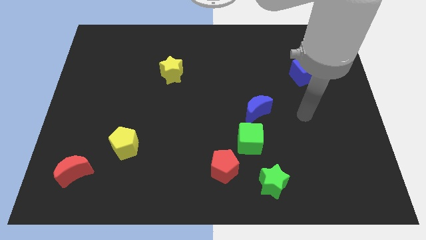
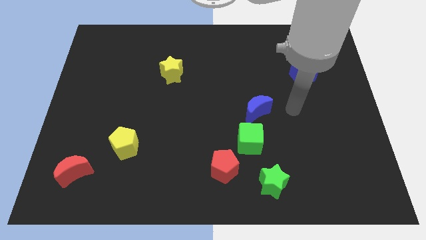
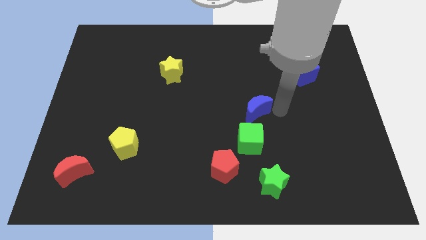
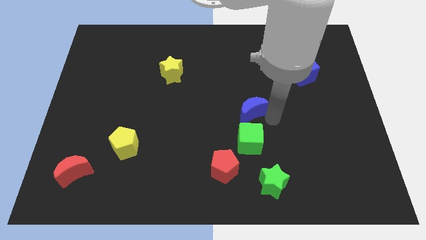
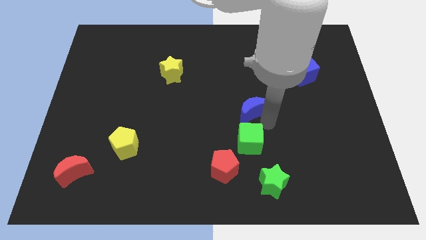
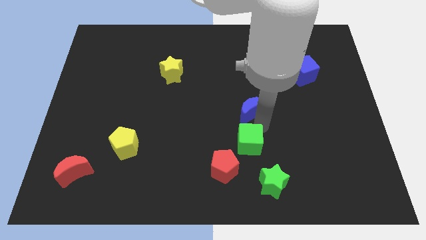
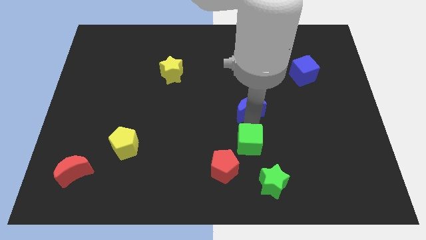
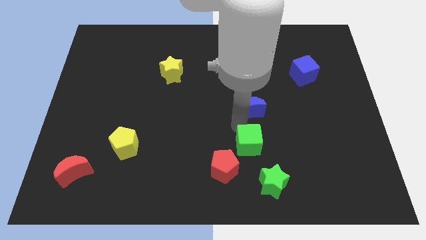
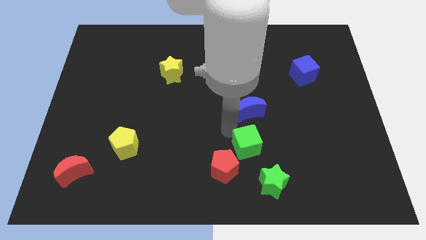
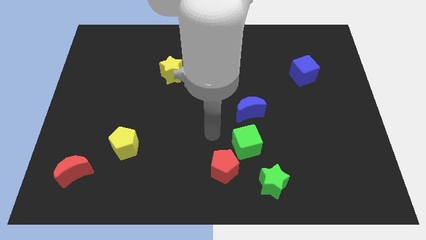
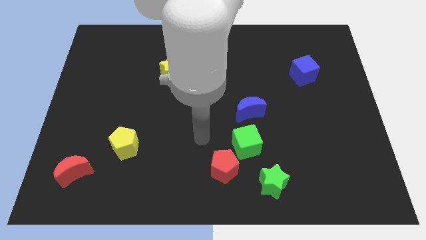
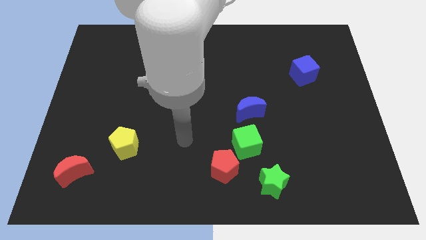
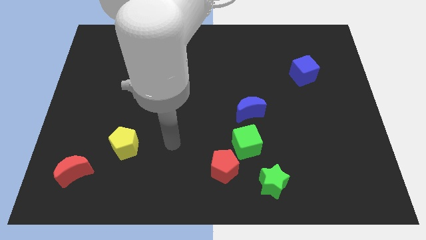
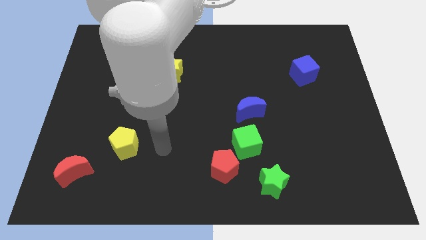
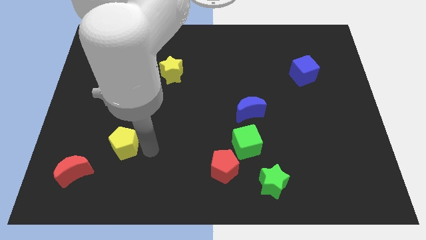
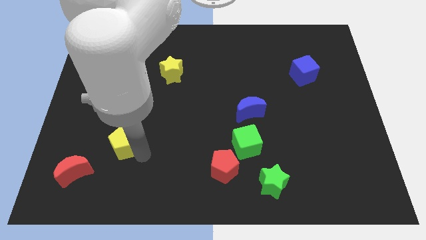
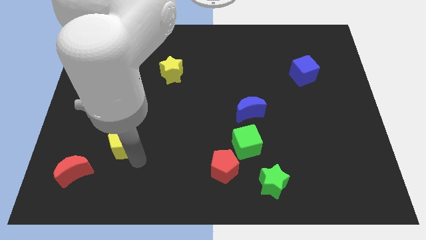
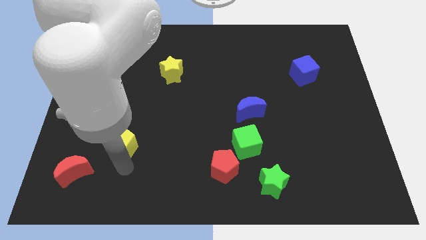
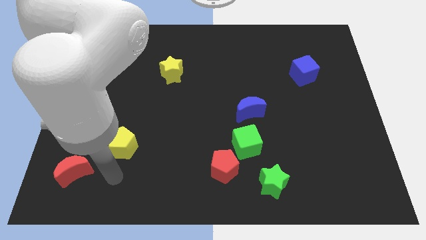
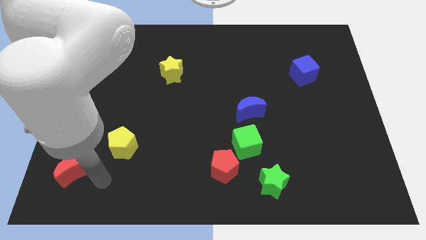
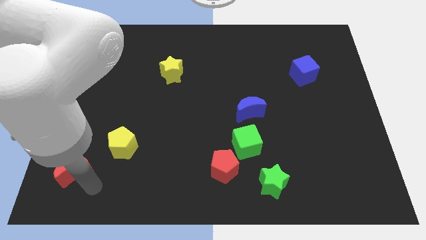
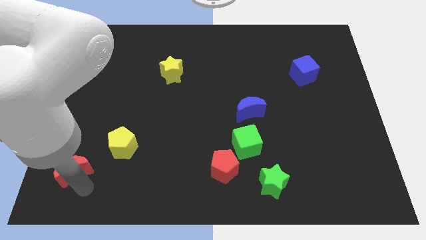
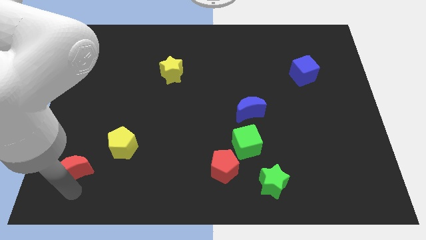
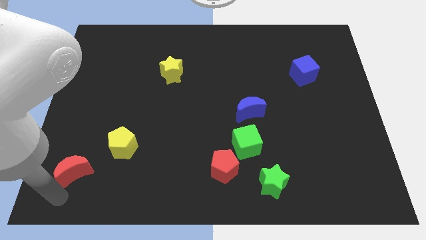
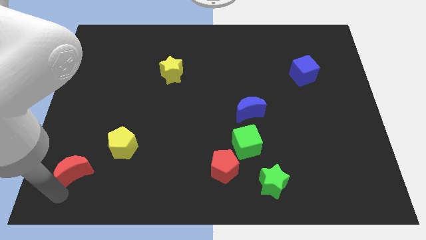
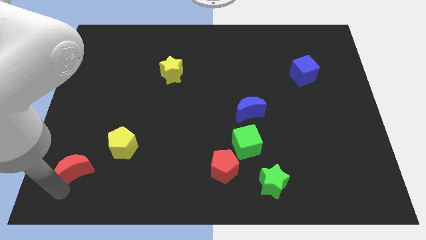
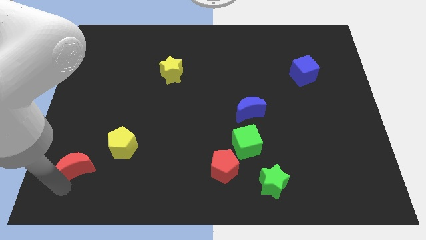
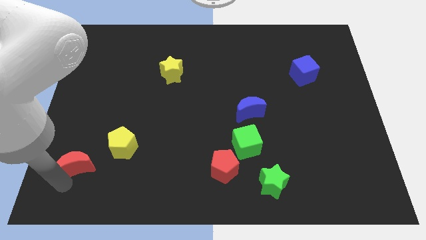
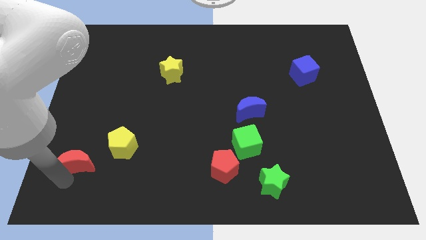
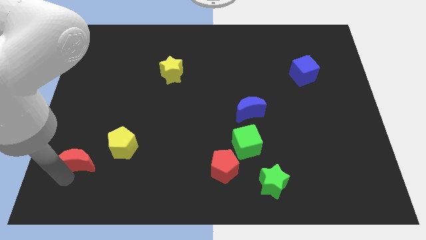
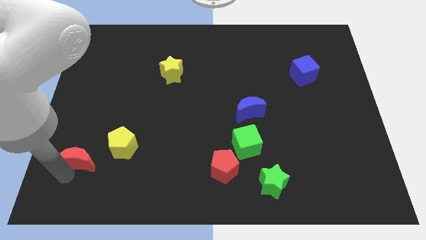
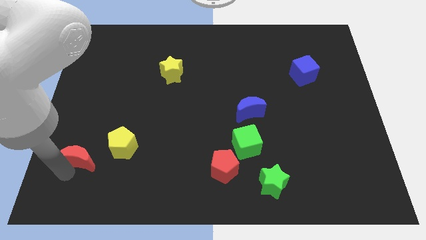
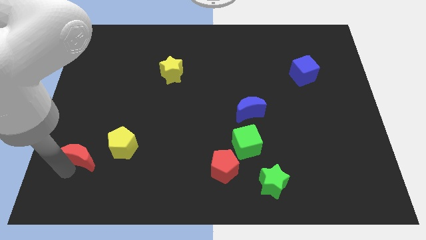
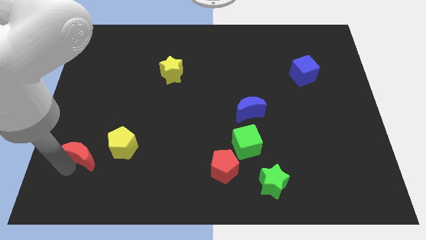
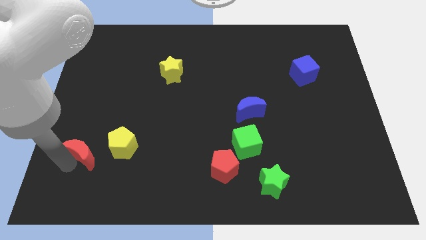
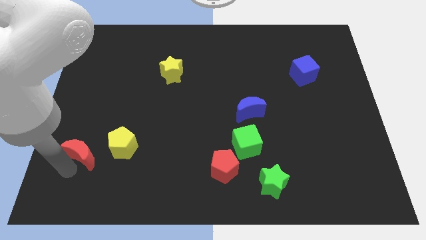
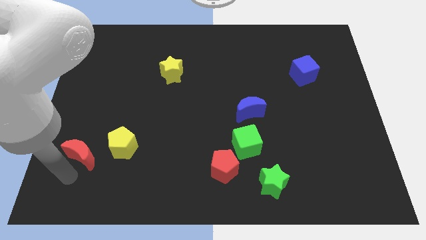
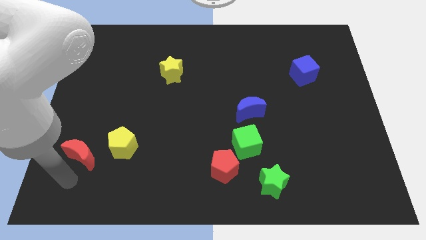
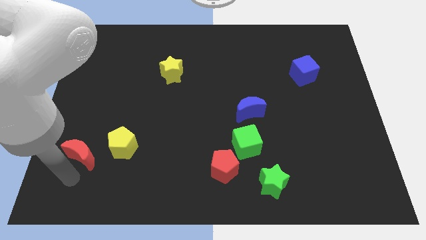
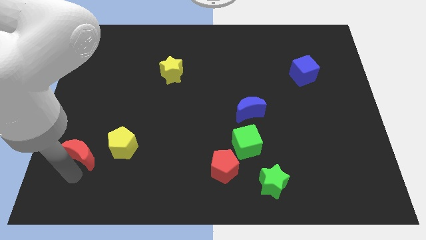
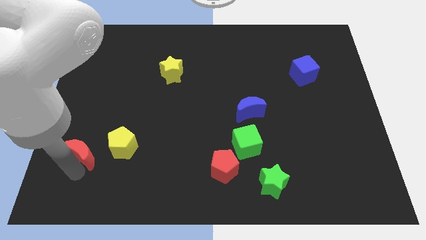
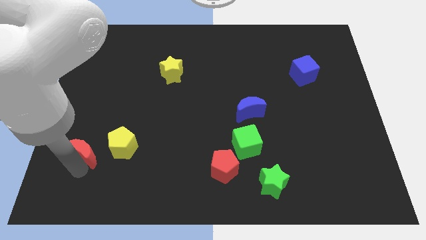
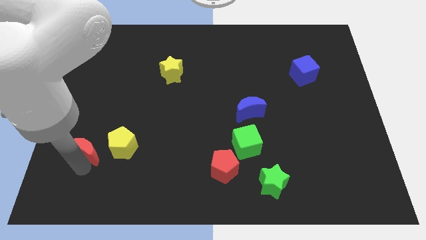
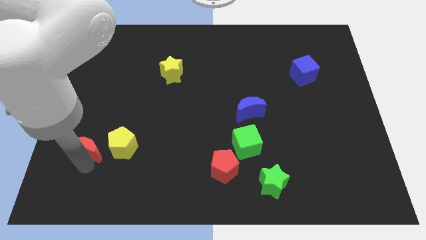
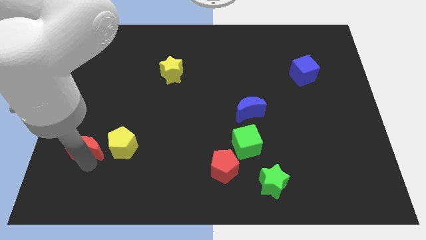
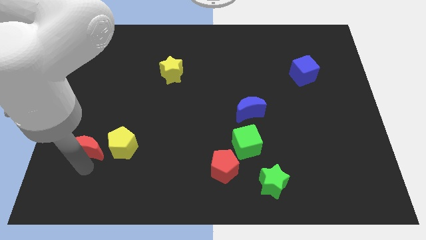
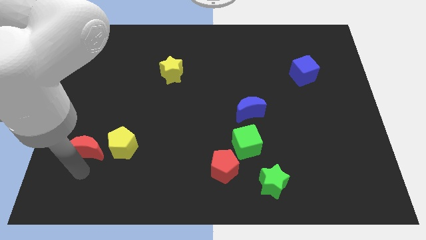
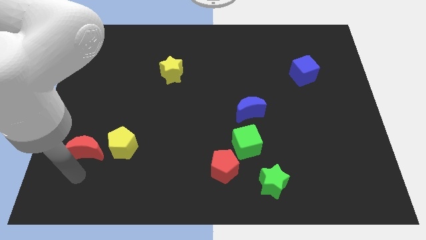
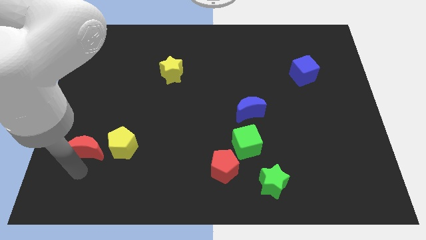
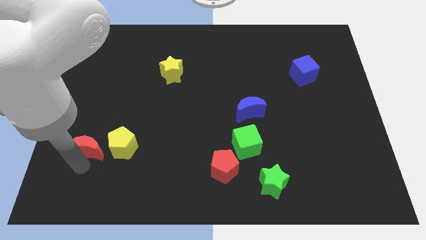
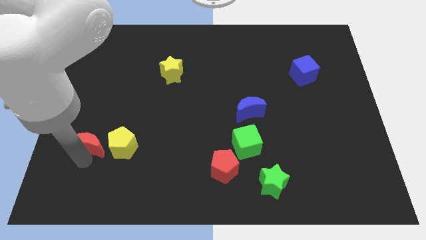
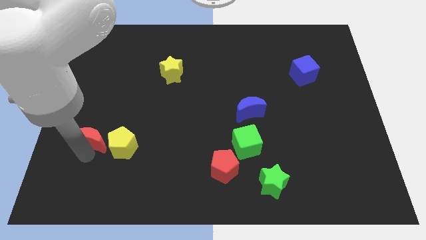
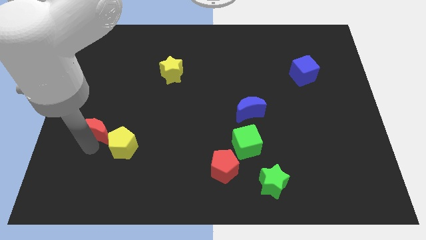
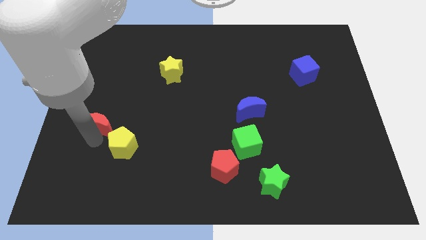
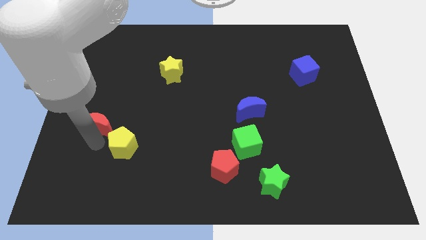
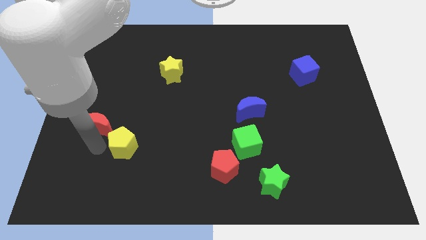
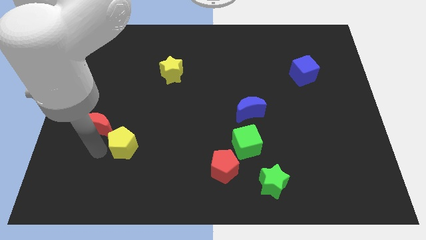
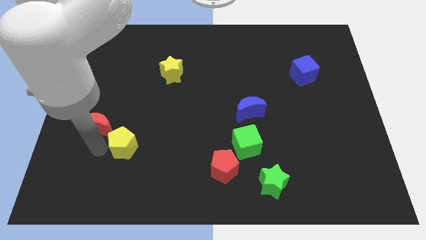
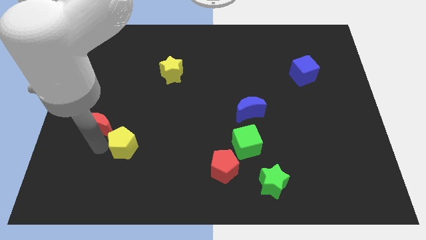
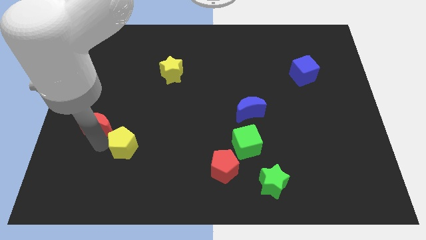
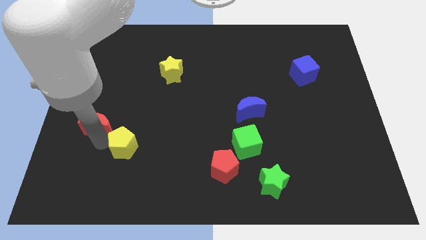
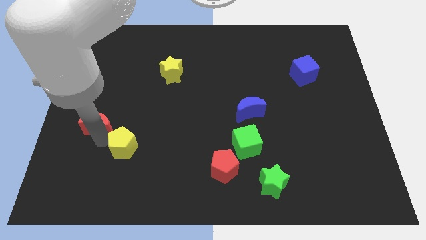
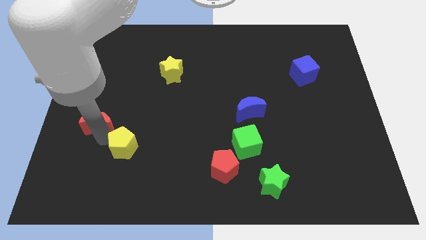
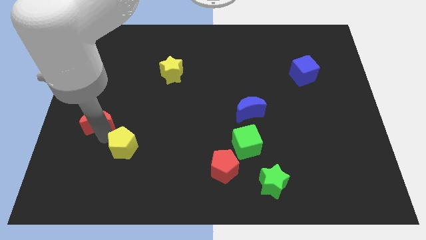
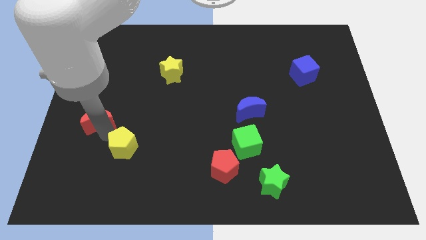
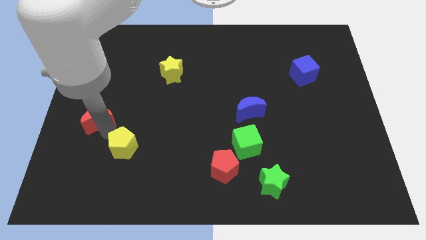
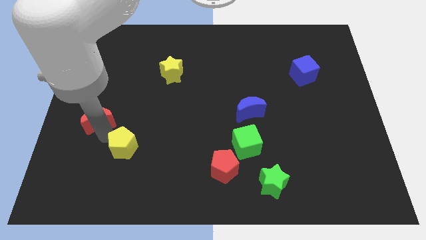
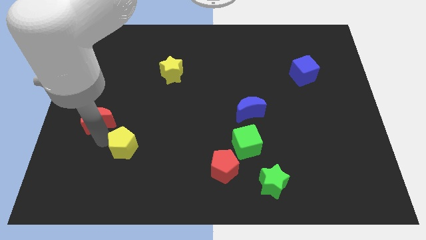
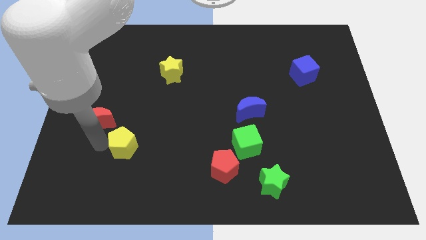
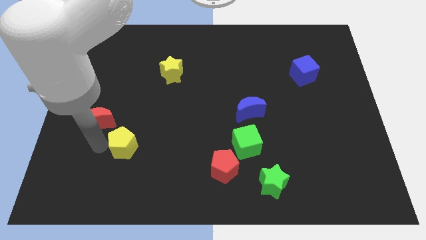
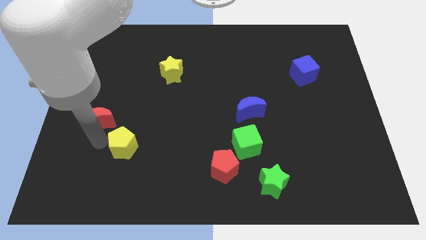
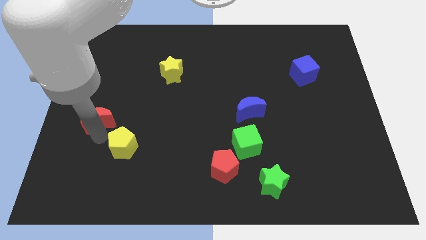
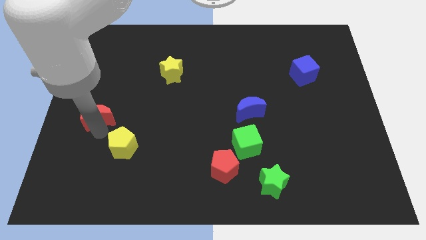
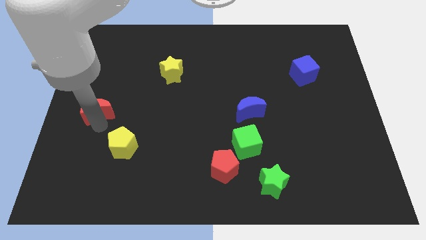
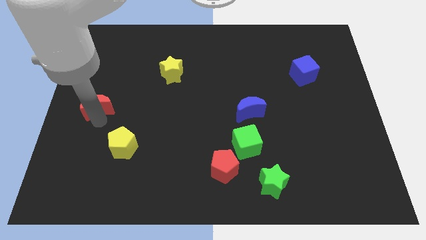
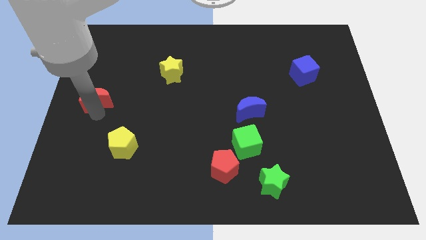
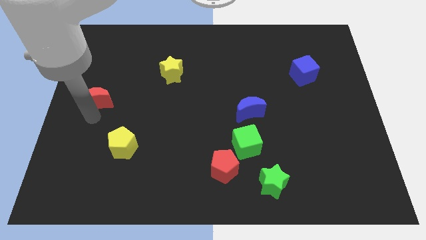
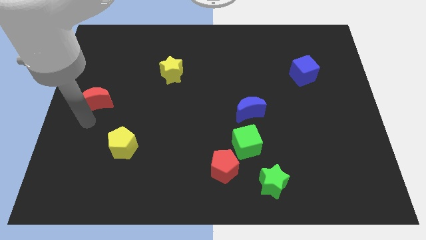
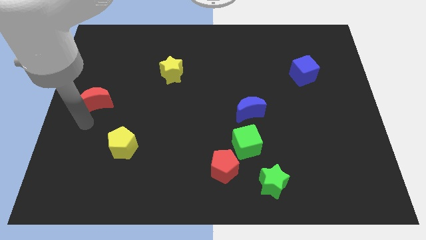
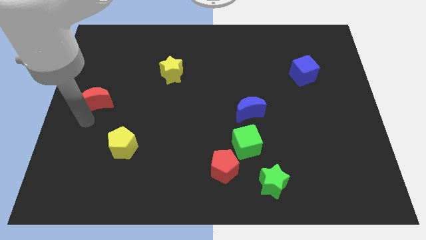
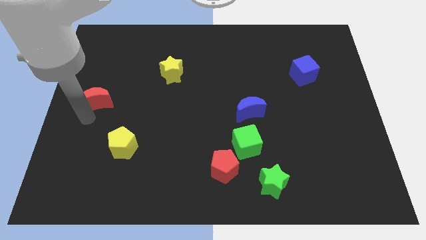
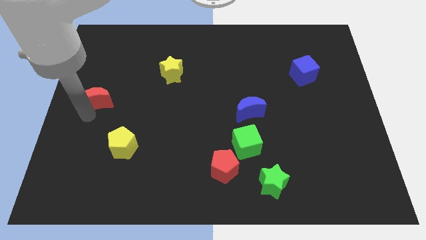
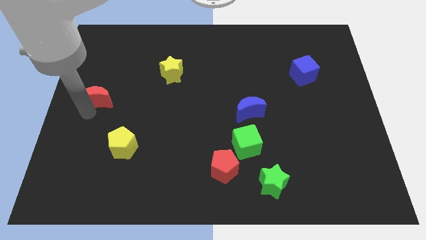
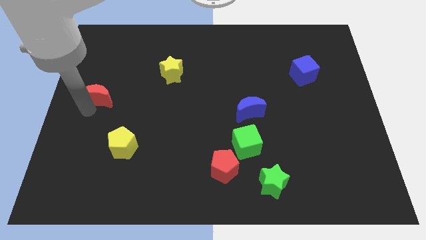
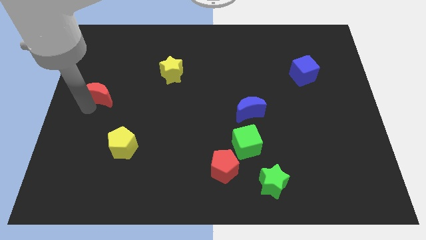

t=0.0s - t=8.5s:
move the red moon up
